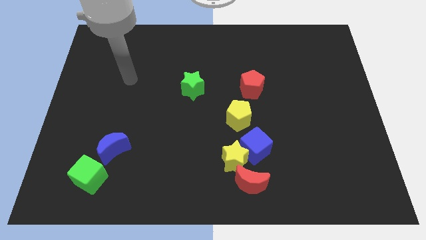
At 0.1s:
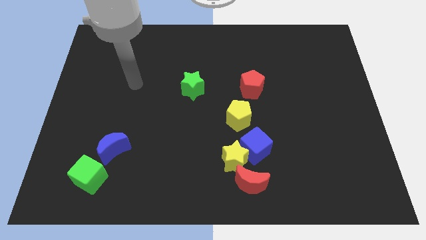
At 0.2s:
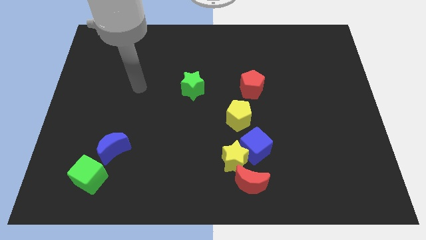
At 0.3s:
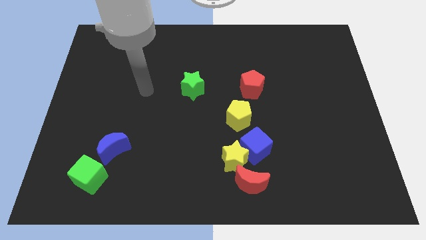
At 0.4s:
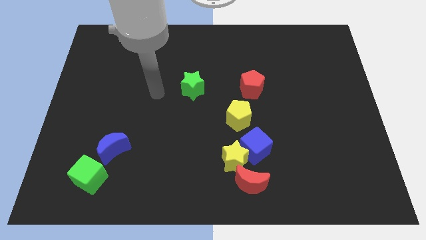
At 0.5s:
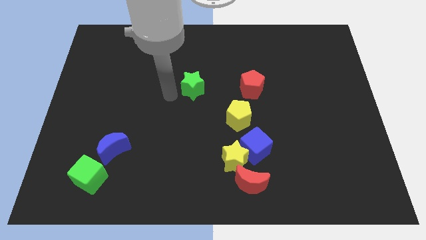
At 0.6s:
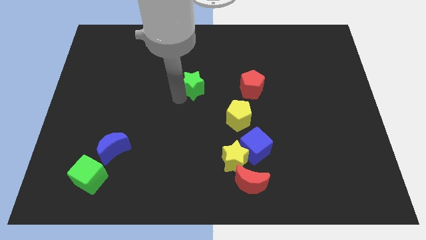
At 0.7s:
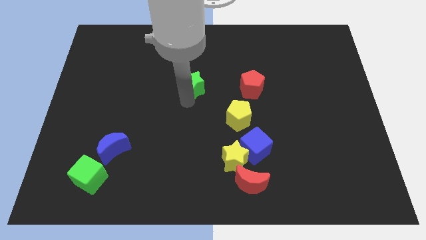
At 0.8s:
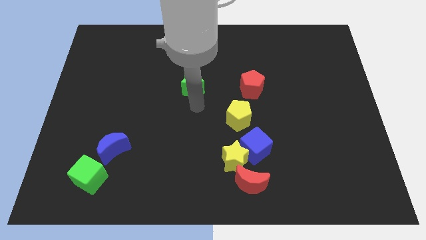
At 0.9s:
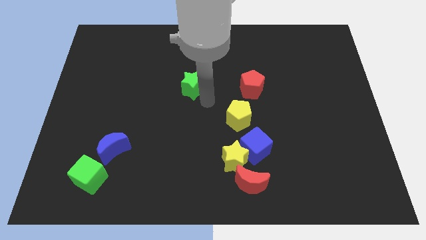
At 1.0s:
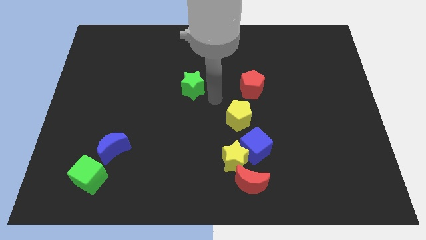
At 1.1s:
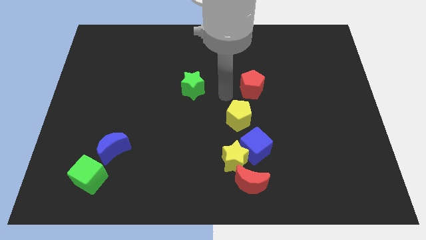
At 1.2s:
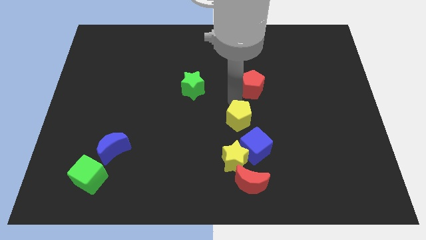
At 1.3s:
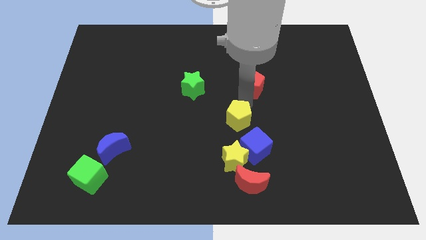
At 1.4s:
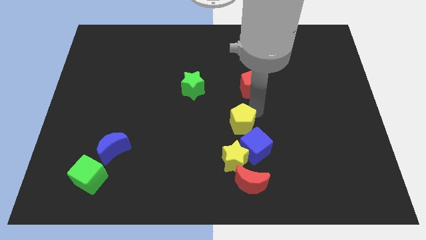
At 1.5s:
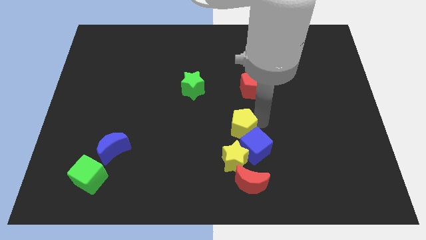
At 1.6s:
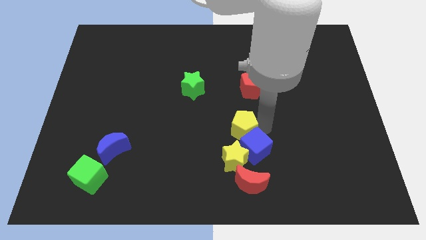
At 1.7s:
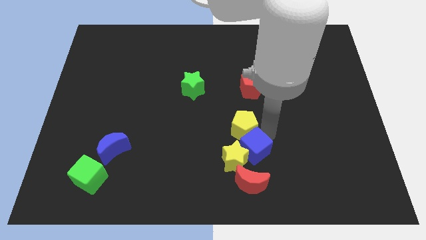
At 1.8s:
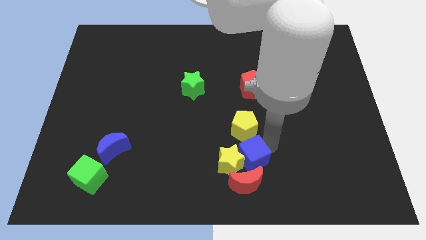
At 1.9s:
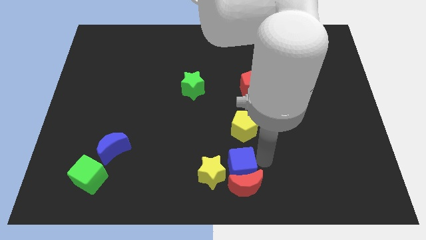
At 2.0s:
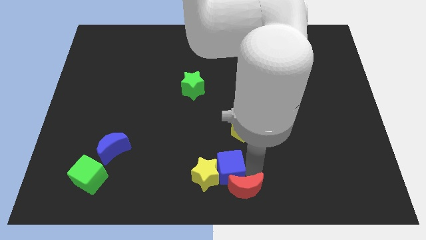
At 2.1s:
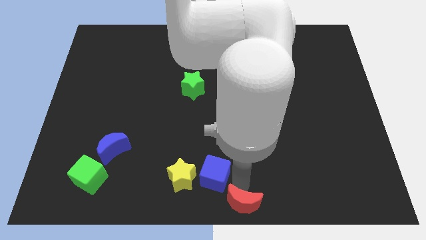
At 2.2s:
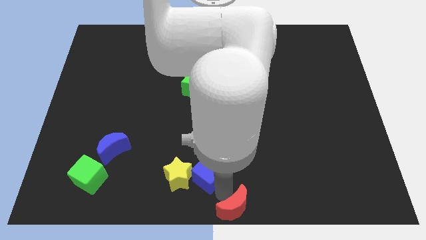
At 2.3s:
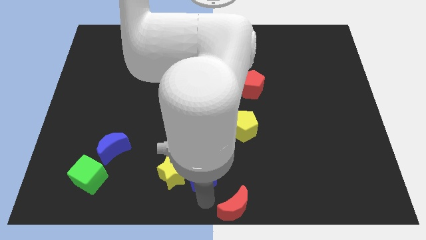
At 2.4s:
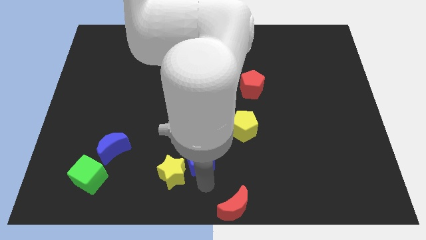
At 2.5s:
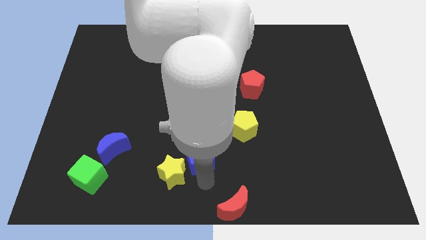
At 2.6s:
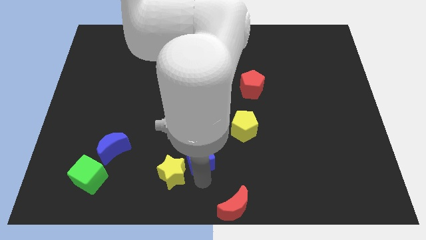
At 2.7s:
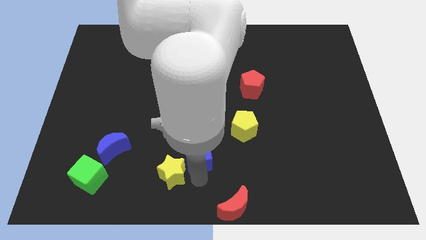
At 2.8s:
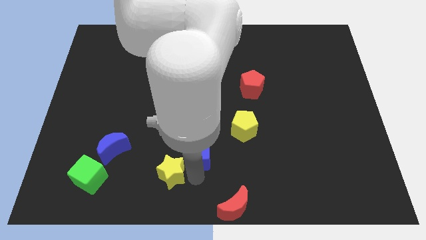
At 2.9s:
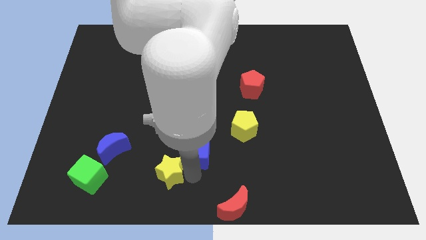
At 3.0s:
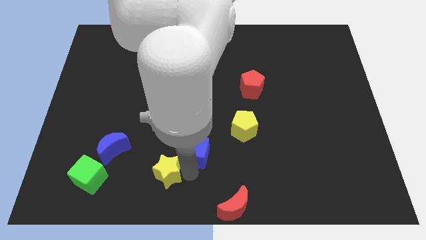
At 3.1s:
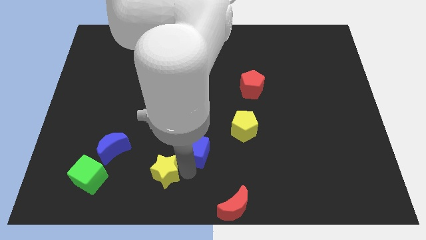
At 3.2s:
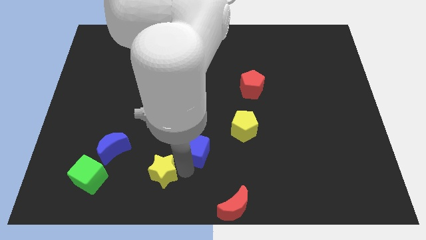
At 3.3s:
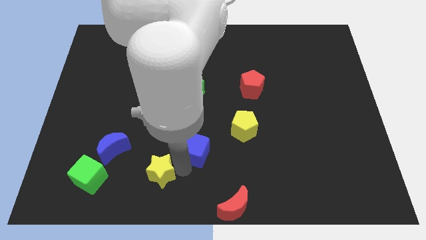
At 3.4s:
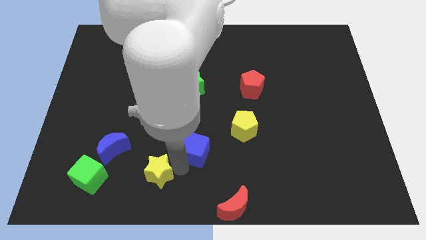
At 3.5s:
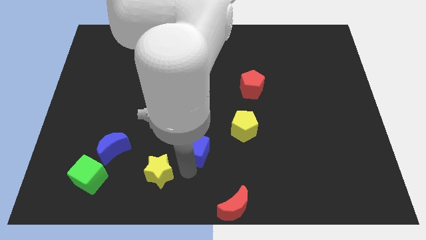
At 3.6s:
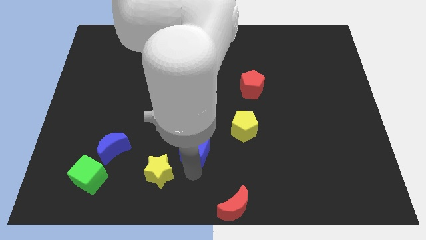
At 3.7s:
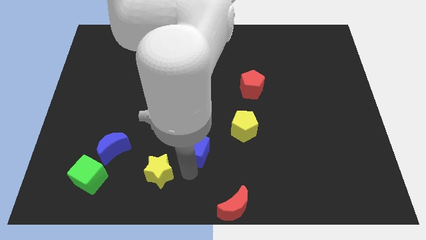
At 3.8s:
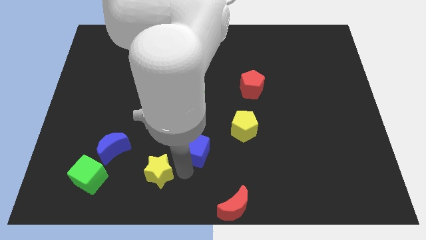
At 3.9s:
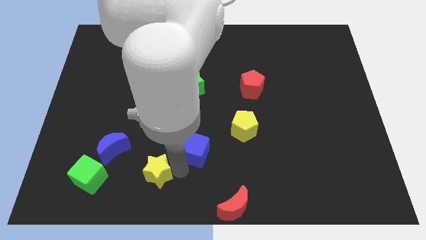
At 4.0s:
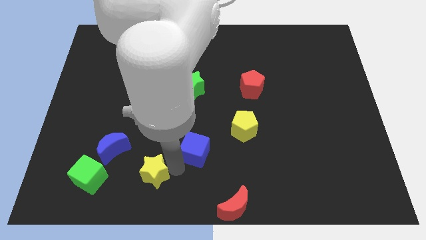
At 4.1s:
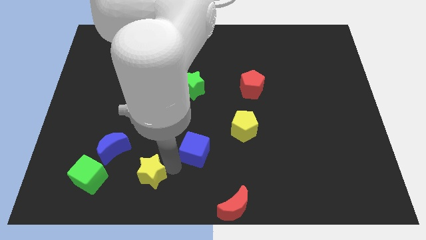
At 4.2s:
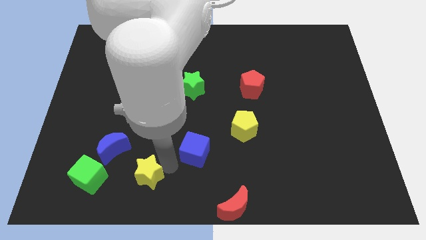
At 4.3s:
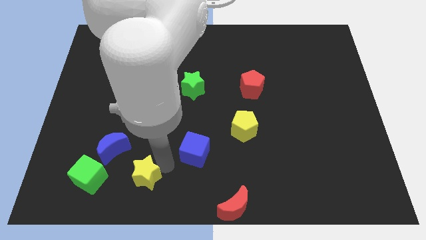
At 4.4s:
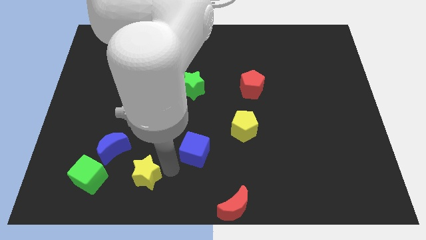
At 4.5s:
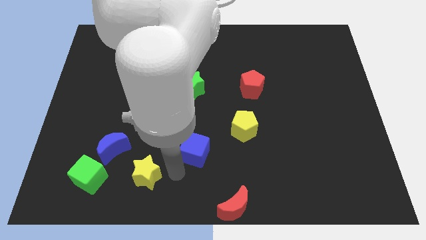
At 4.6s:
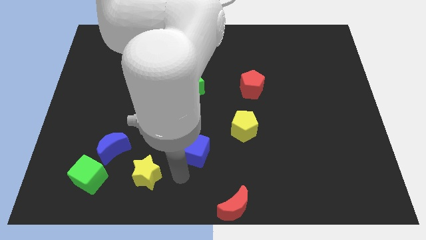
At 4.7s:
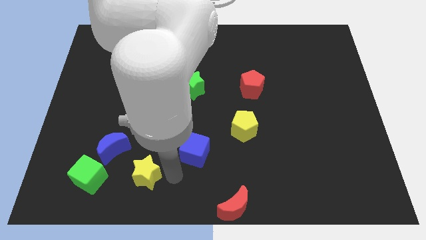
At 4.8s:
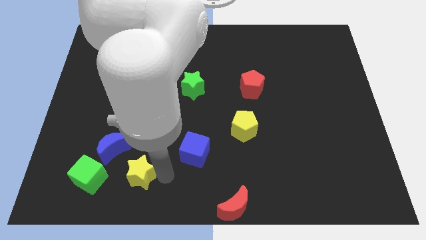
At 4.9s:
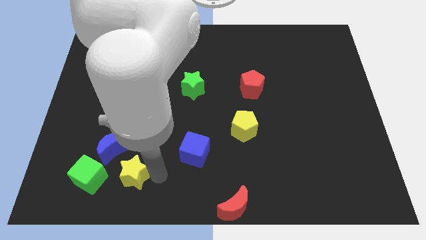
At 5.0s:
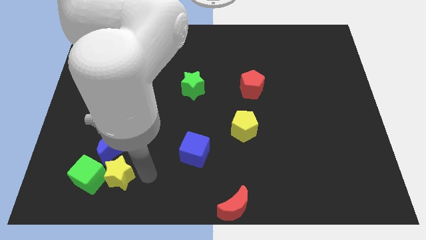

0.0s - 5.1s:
put the yellow star to the green cube

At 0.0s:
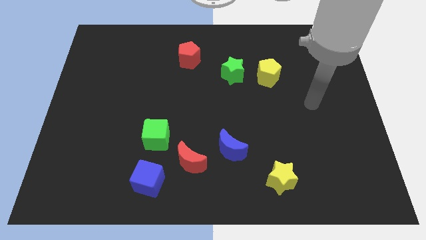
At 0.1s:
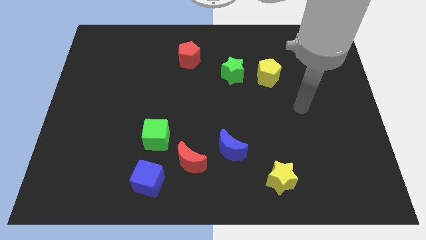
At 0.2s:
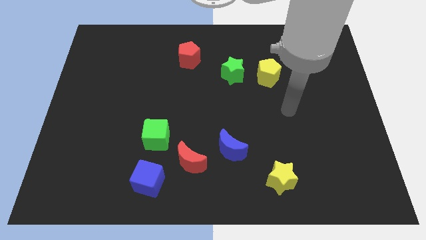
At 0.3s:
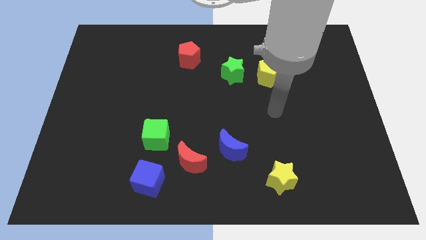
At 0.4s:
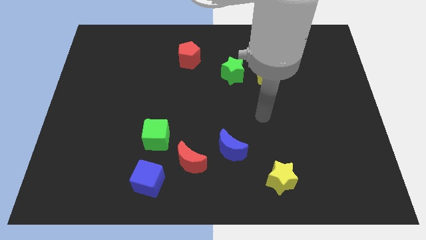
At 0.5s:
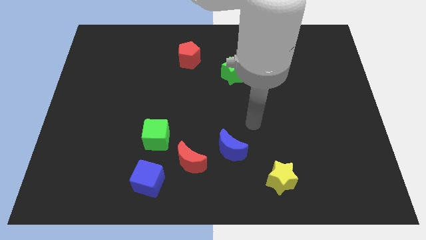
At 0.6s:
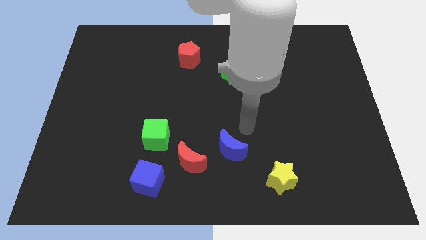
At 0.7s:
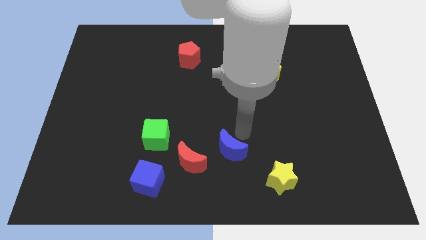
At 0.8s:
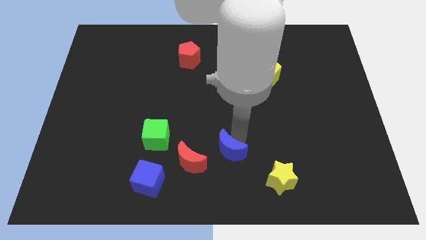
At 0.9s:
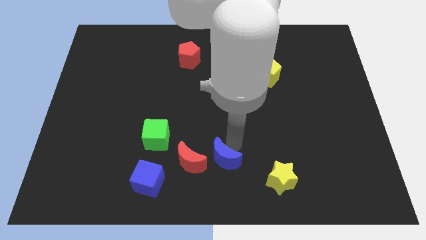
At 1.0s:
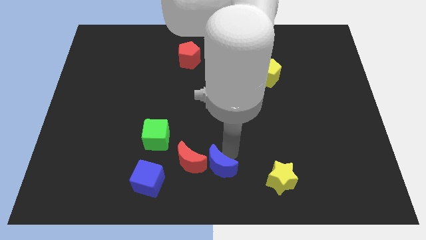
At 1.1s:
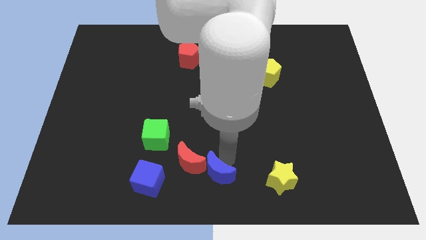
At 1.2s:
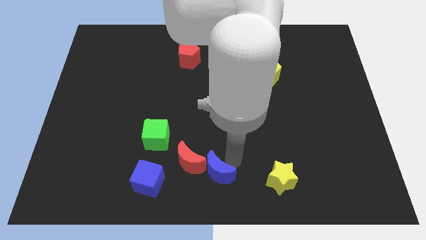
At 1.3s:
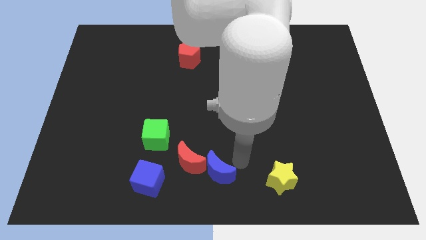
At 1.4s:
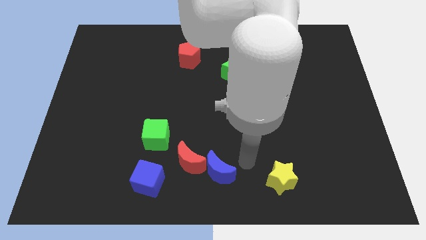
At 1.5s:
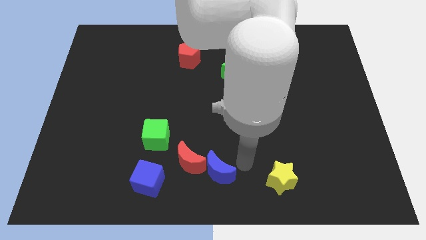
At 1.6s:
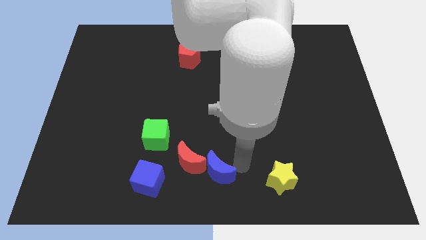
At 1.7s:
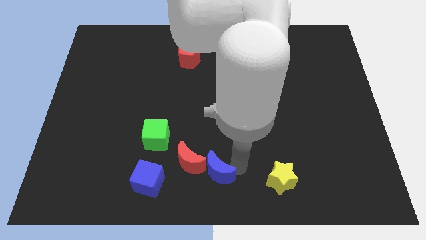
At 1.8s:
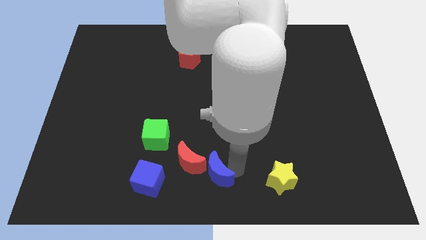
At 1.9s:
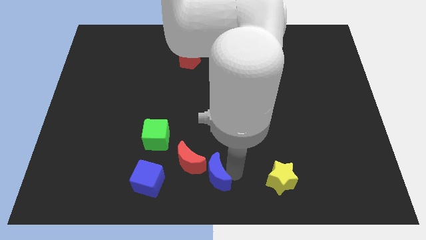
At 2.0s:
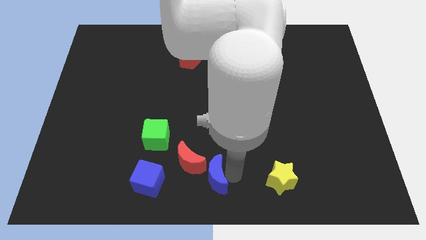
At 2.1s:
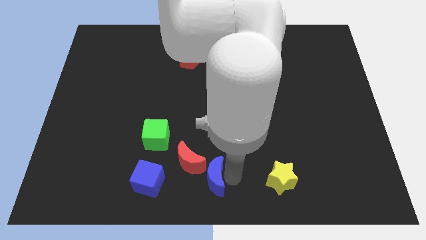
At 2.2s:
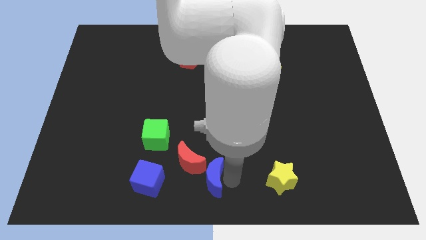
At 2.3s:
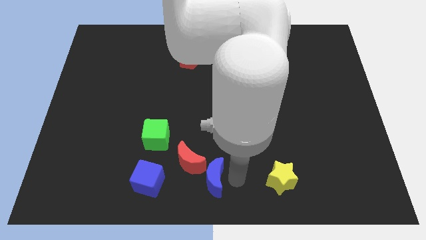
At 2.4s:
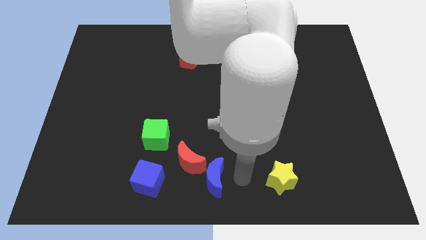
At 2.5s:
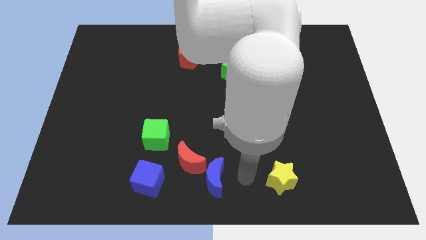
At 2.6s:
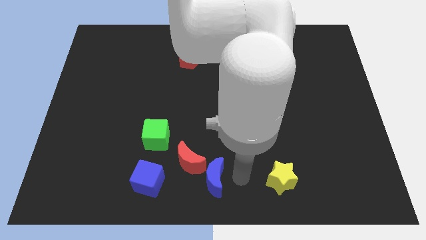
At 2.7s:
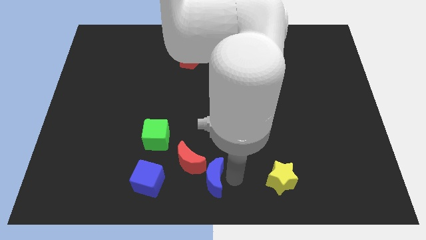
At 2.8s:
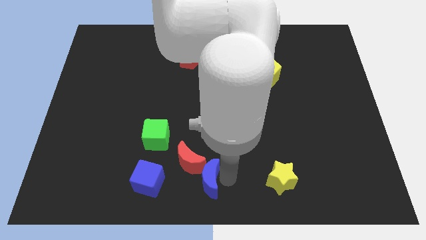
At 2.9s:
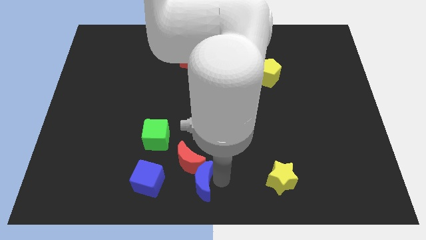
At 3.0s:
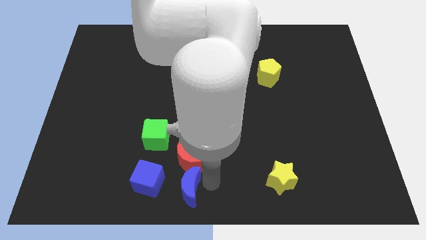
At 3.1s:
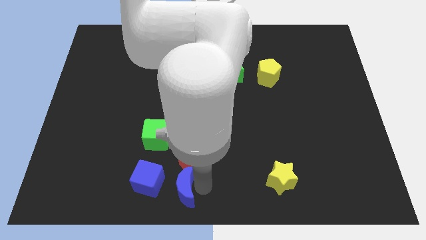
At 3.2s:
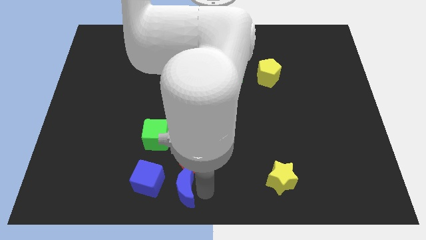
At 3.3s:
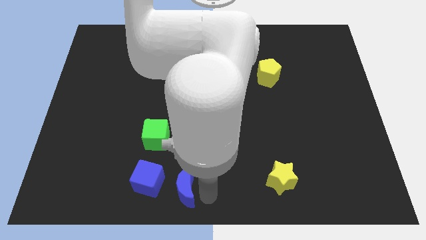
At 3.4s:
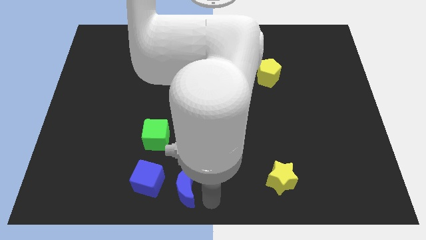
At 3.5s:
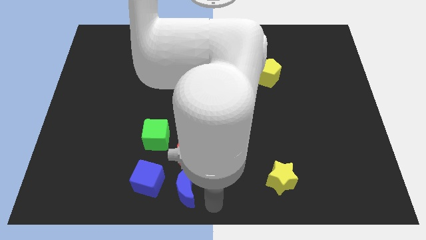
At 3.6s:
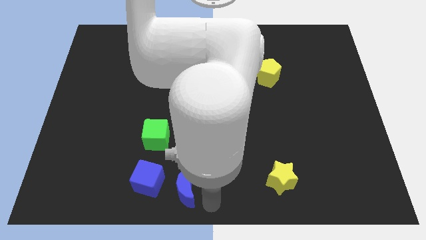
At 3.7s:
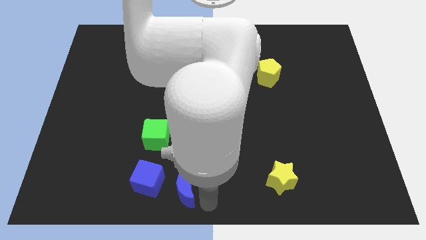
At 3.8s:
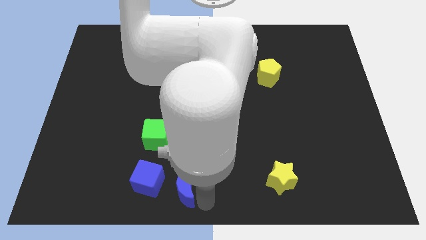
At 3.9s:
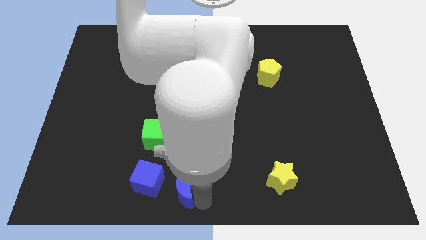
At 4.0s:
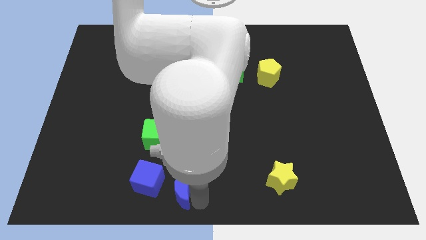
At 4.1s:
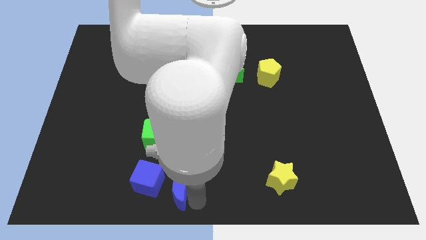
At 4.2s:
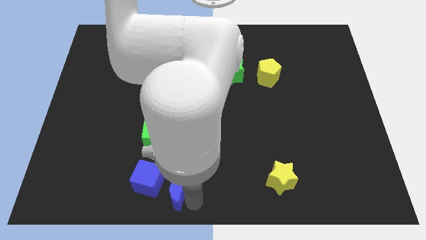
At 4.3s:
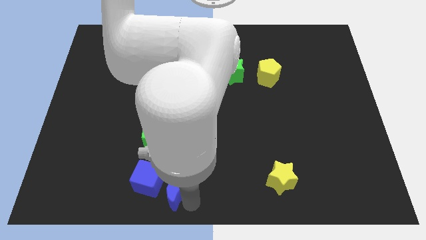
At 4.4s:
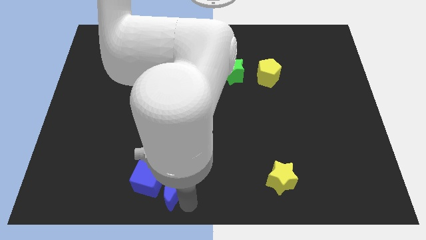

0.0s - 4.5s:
push the blue moon next to the blue cube
